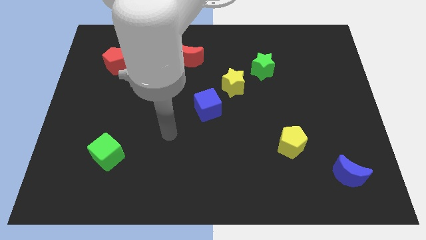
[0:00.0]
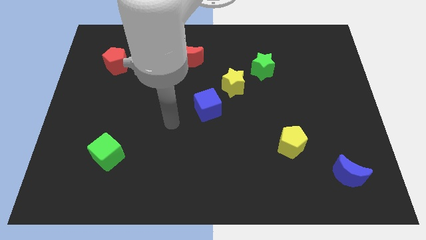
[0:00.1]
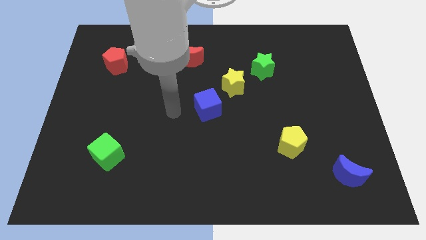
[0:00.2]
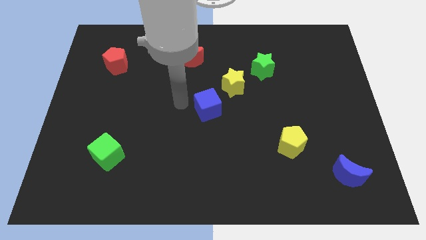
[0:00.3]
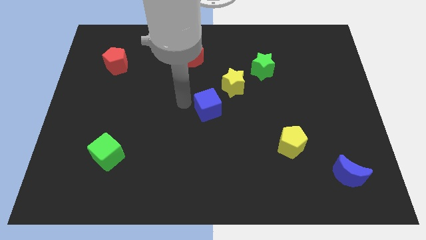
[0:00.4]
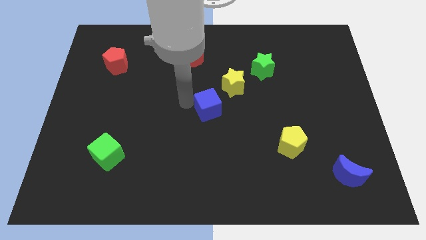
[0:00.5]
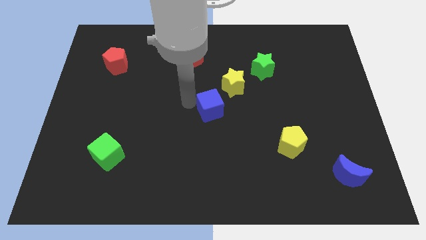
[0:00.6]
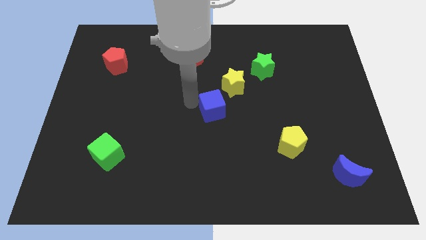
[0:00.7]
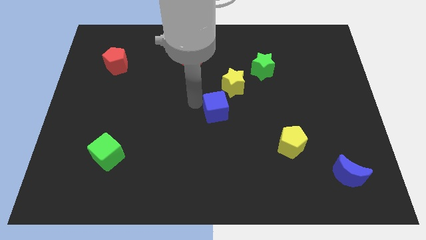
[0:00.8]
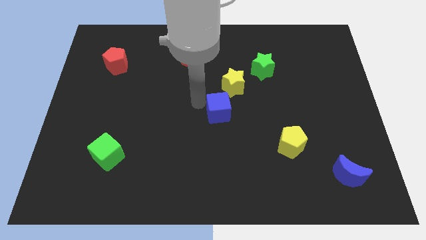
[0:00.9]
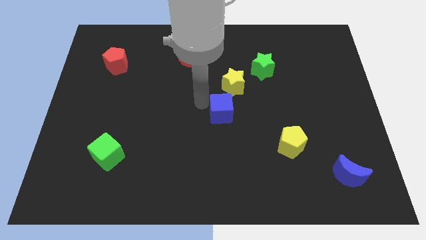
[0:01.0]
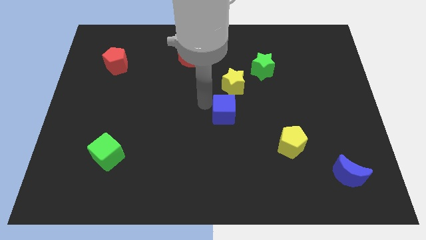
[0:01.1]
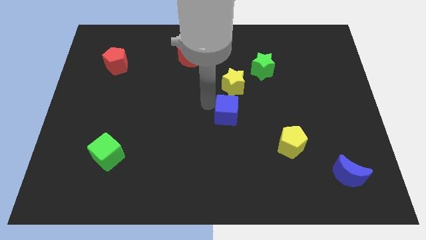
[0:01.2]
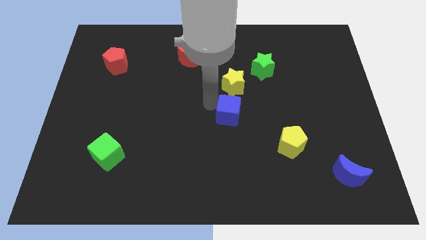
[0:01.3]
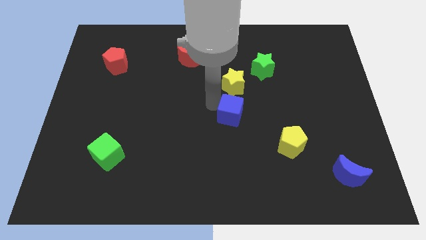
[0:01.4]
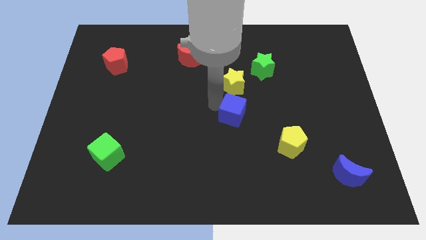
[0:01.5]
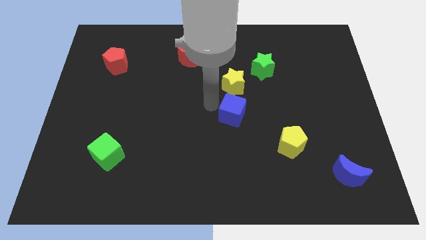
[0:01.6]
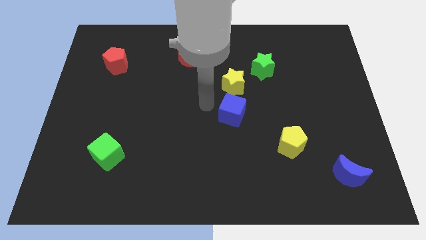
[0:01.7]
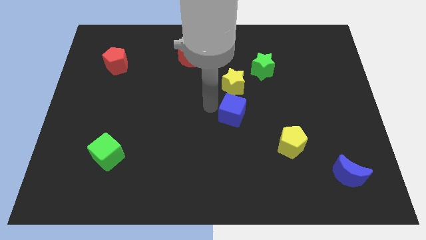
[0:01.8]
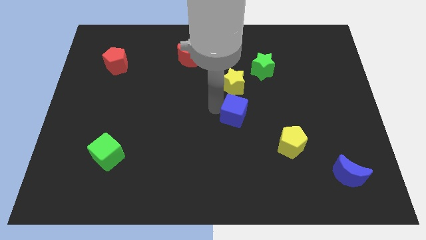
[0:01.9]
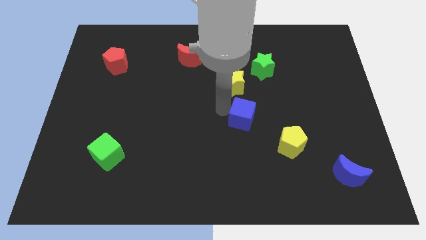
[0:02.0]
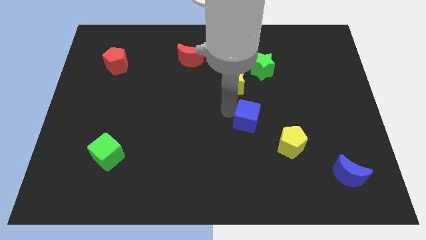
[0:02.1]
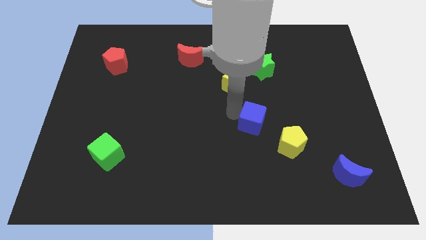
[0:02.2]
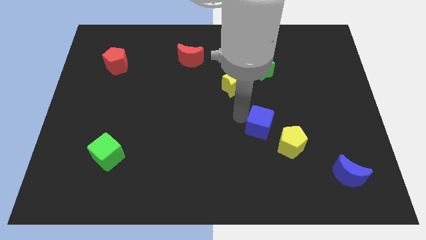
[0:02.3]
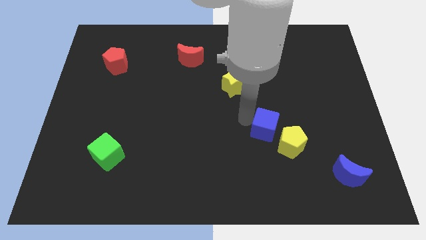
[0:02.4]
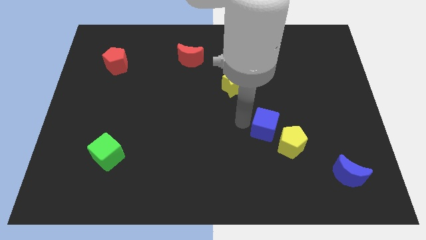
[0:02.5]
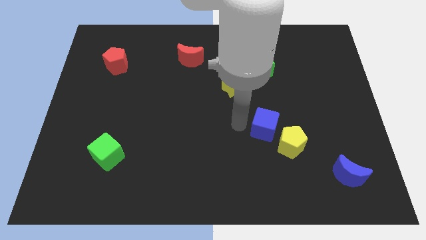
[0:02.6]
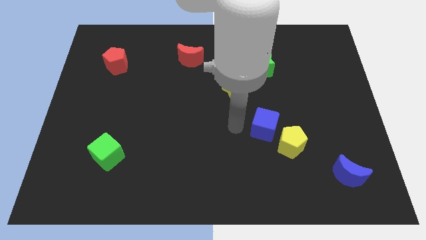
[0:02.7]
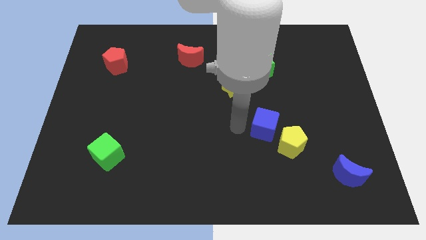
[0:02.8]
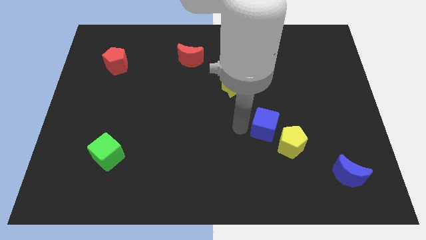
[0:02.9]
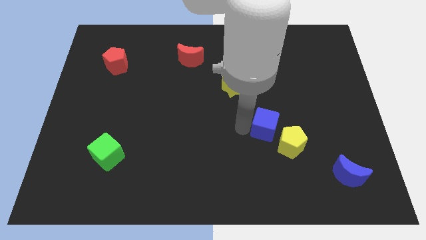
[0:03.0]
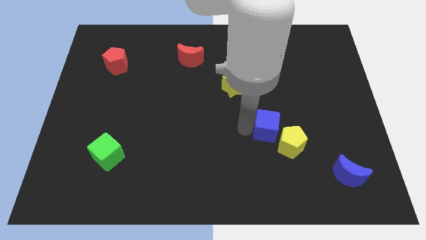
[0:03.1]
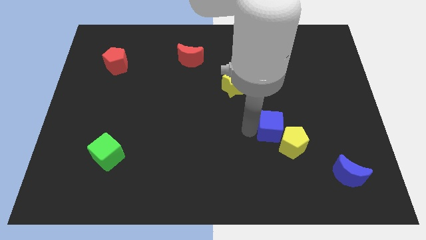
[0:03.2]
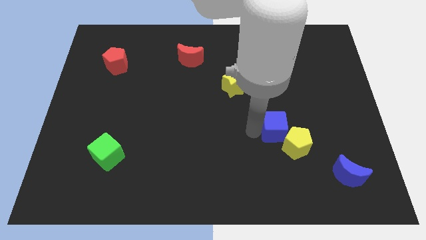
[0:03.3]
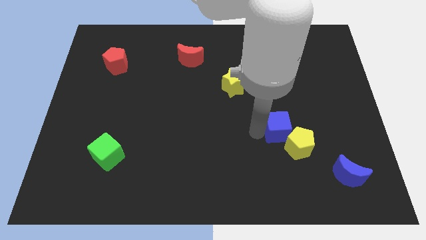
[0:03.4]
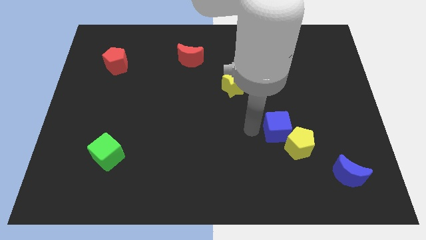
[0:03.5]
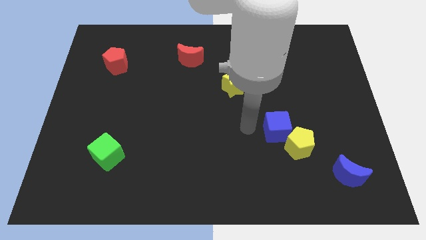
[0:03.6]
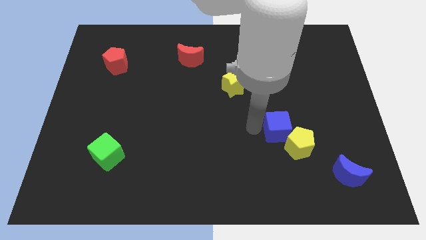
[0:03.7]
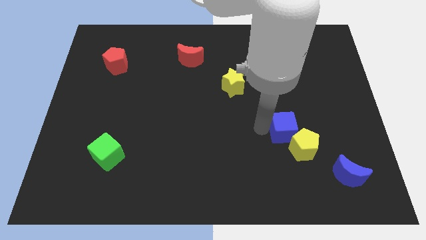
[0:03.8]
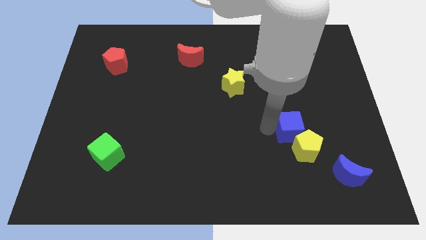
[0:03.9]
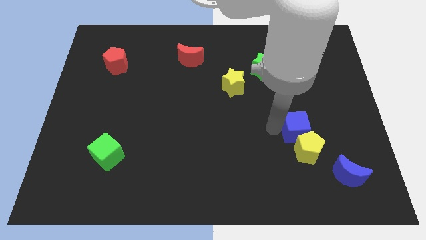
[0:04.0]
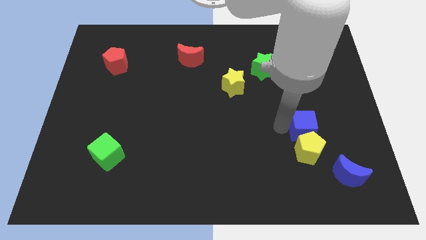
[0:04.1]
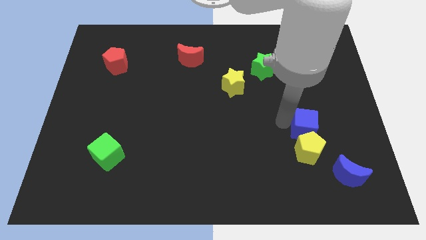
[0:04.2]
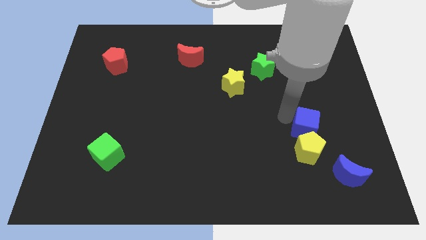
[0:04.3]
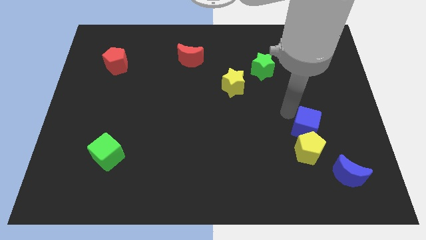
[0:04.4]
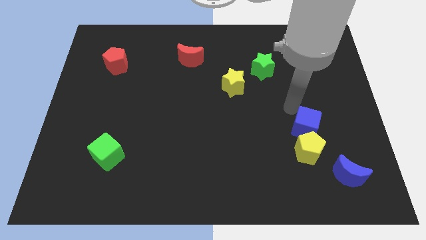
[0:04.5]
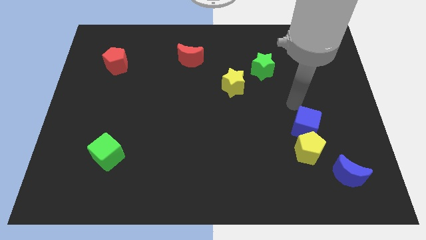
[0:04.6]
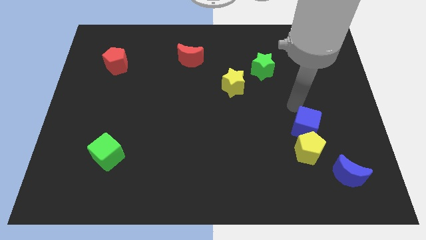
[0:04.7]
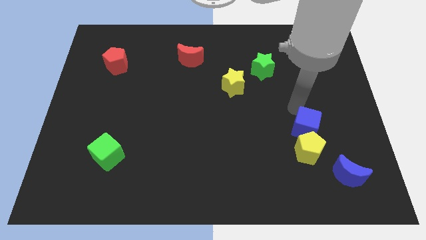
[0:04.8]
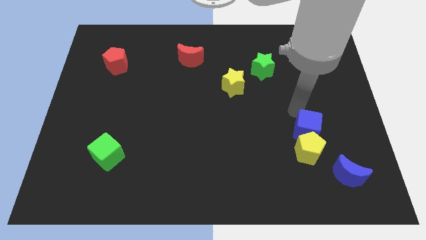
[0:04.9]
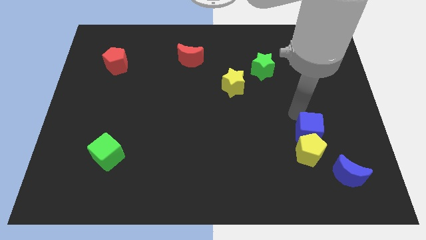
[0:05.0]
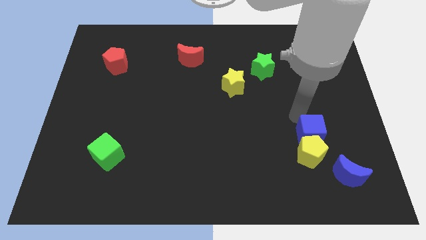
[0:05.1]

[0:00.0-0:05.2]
move the blue cube diagonally up and to the left of the blue moon

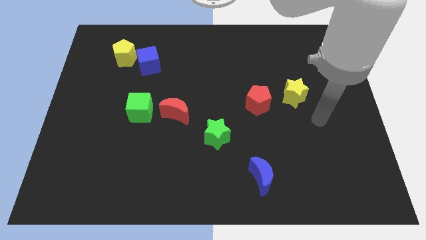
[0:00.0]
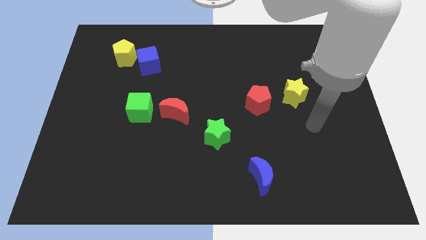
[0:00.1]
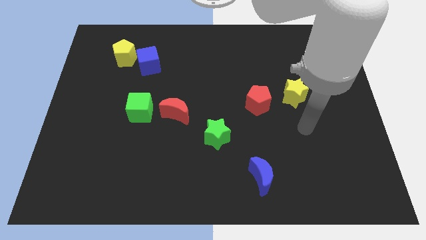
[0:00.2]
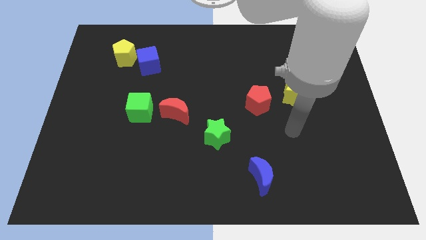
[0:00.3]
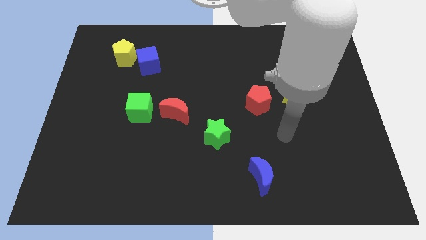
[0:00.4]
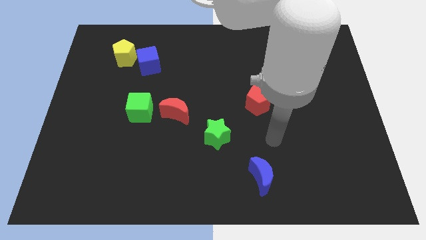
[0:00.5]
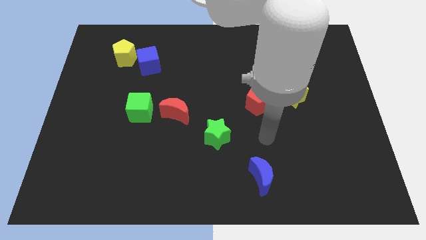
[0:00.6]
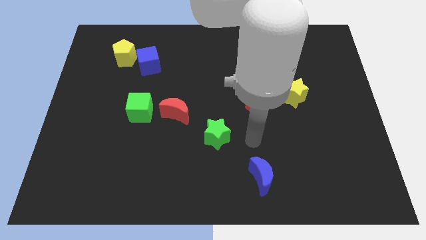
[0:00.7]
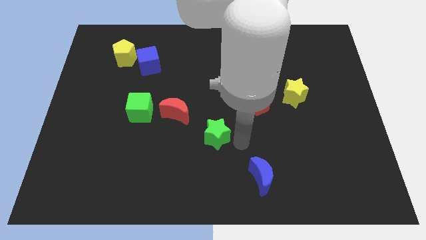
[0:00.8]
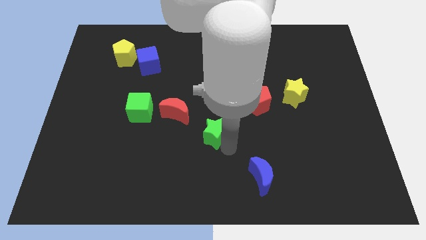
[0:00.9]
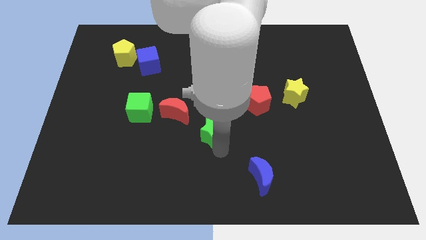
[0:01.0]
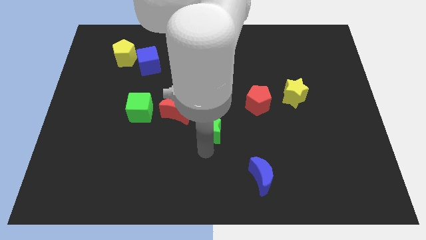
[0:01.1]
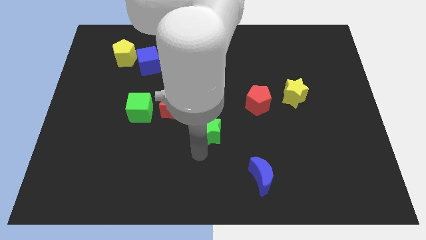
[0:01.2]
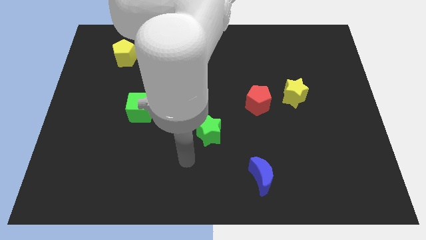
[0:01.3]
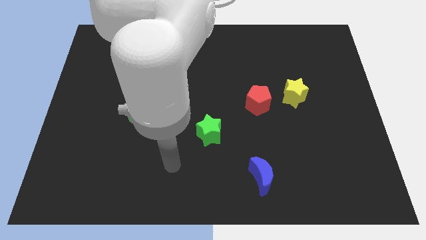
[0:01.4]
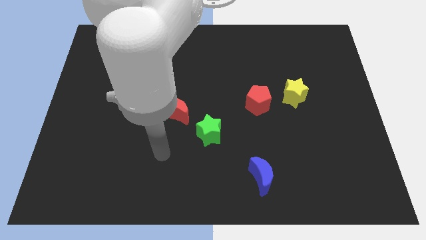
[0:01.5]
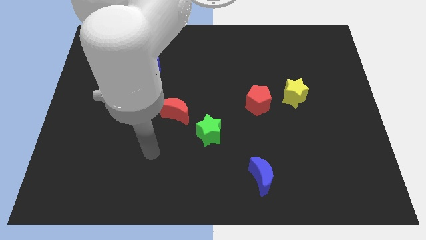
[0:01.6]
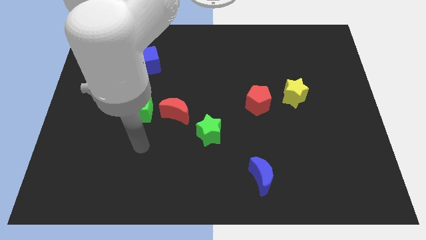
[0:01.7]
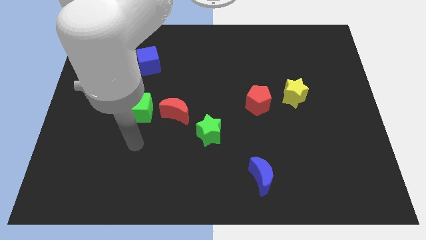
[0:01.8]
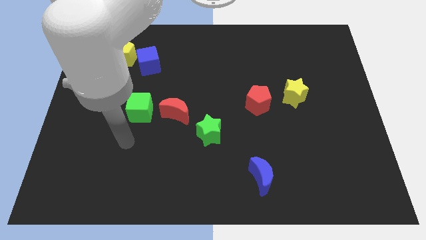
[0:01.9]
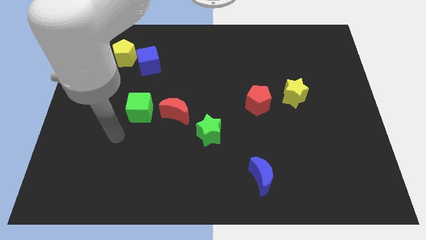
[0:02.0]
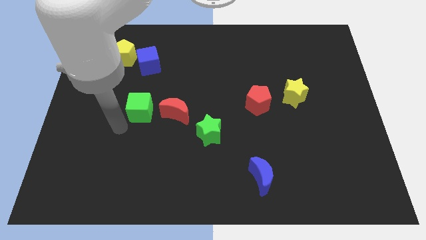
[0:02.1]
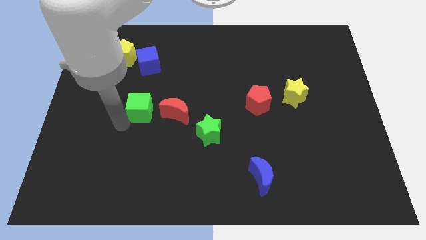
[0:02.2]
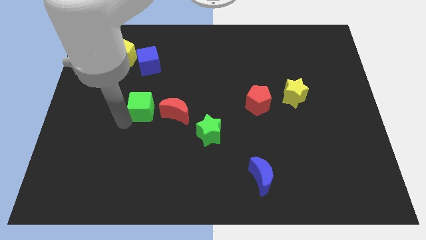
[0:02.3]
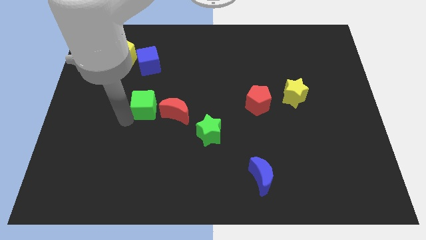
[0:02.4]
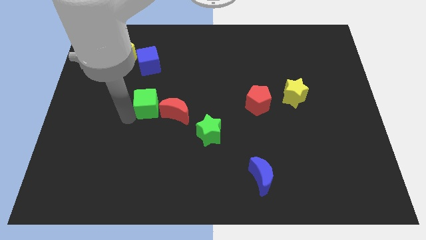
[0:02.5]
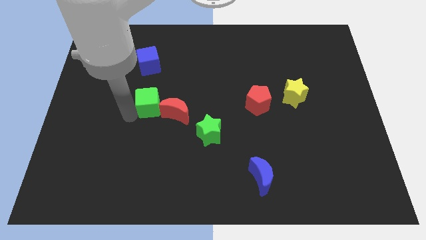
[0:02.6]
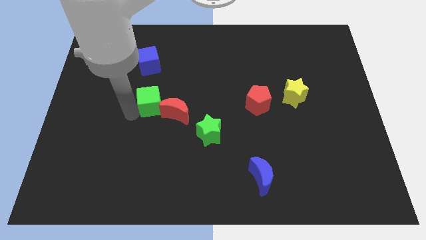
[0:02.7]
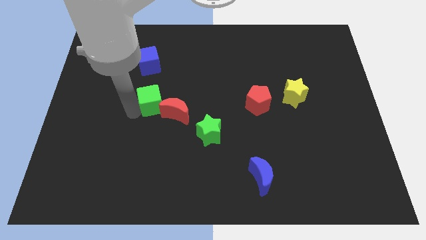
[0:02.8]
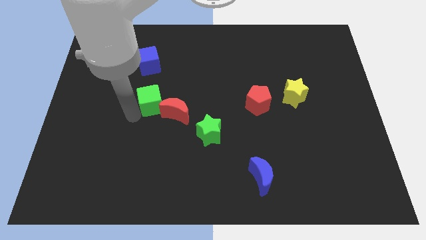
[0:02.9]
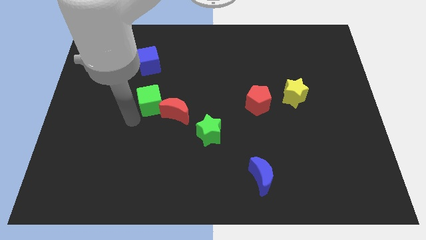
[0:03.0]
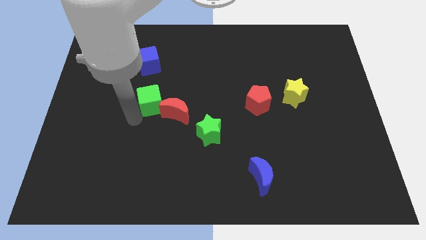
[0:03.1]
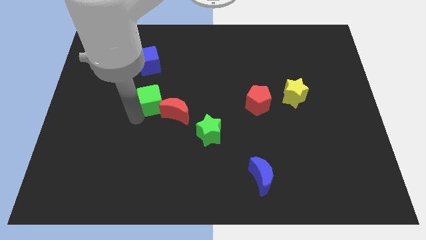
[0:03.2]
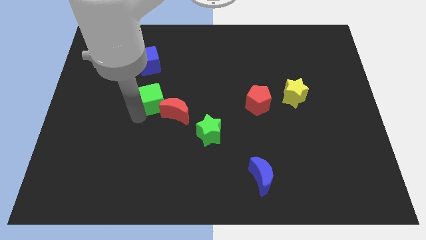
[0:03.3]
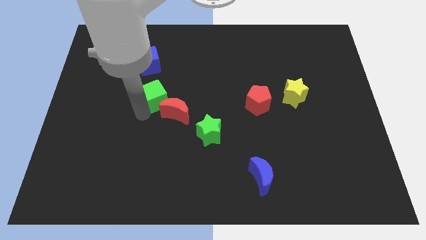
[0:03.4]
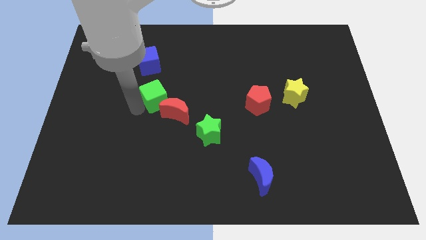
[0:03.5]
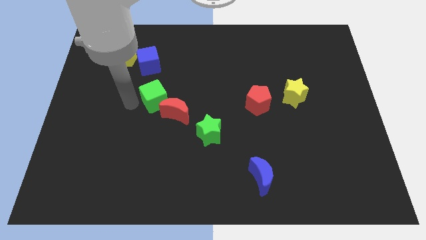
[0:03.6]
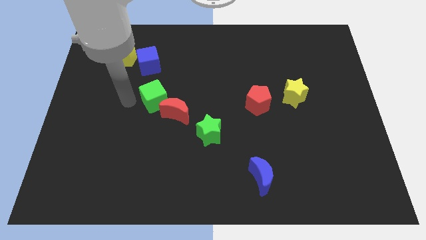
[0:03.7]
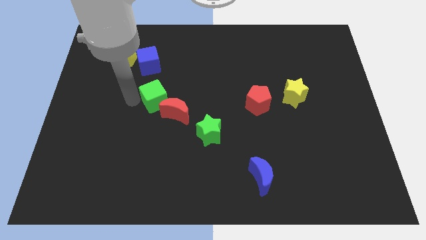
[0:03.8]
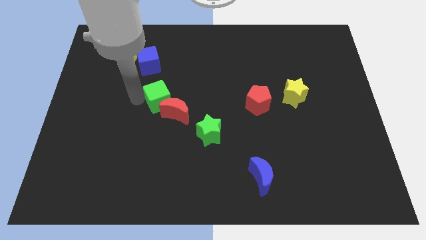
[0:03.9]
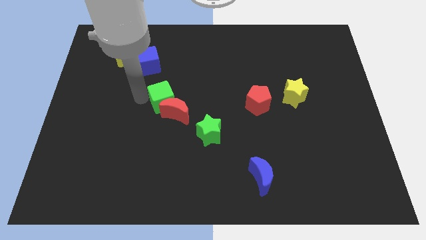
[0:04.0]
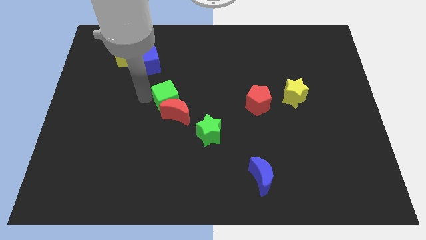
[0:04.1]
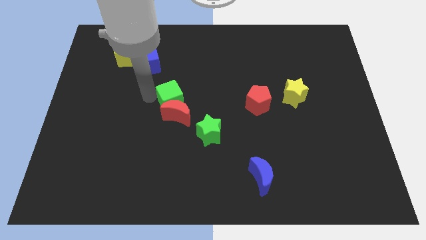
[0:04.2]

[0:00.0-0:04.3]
put the green cube diagonally up and to the right of the red moon
